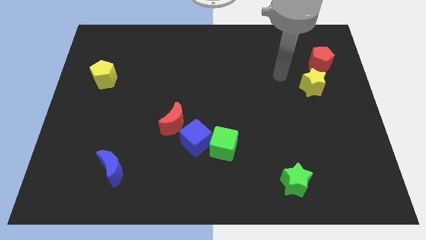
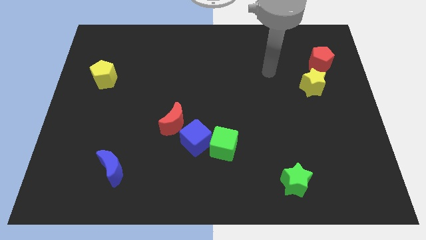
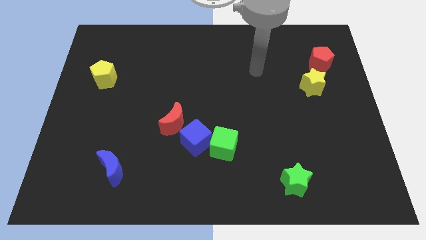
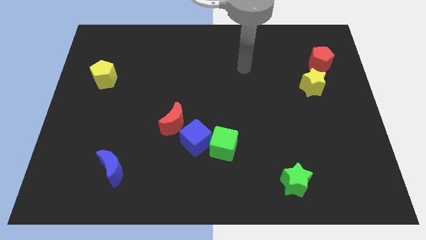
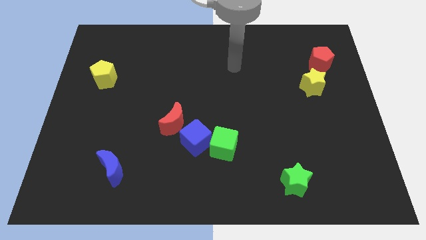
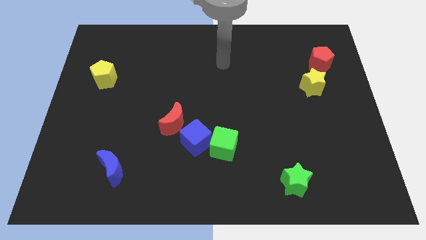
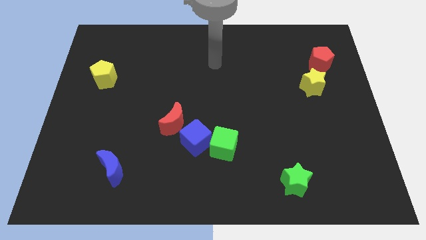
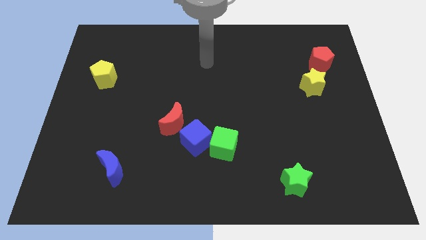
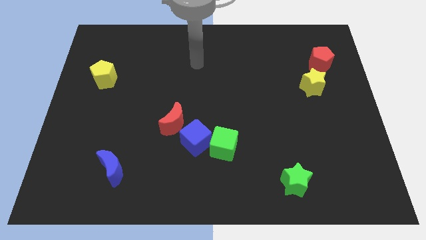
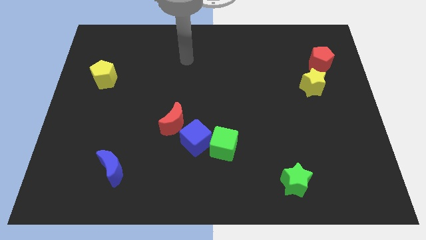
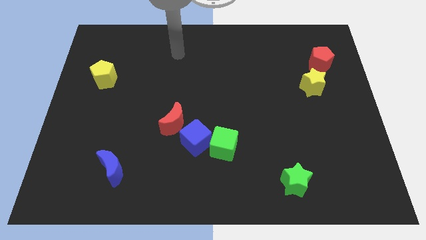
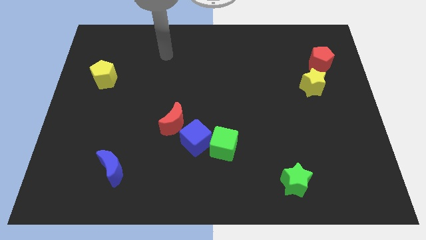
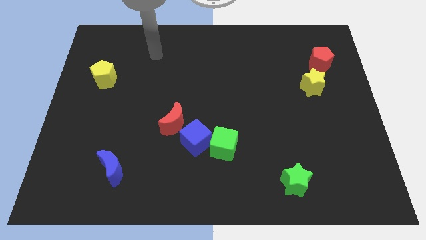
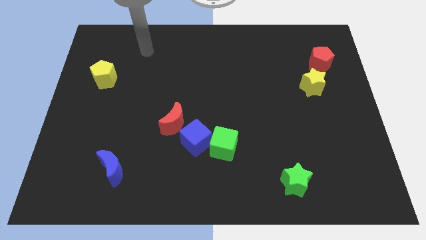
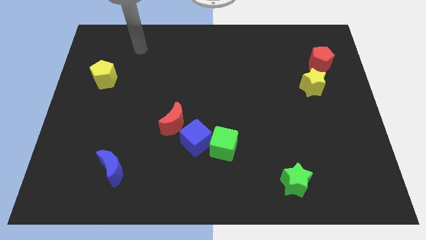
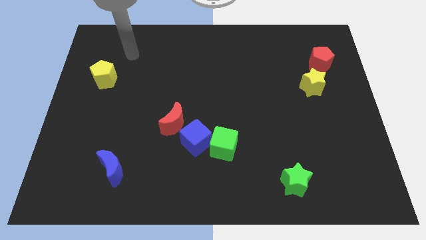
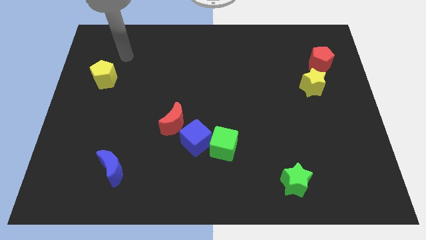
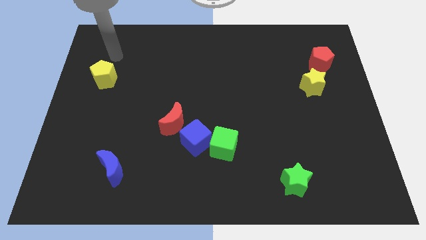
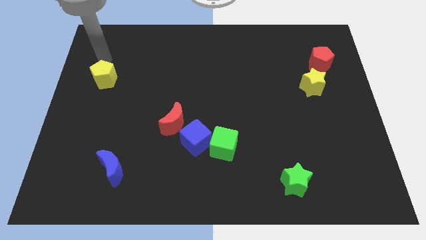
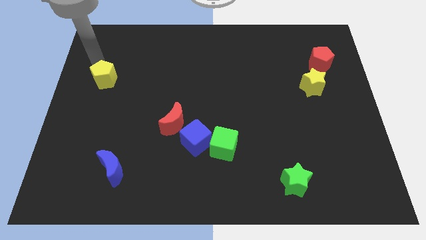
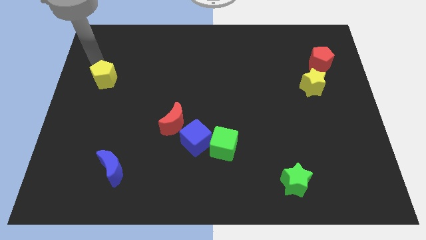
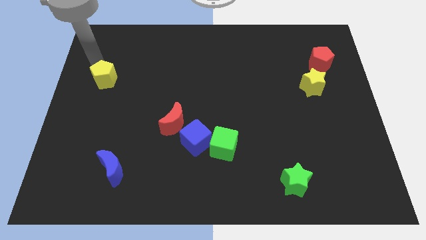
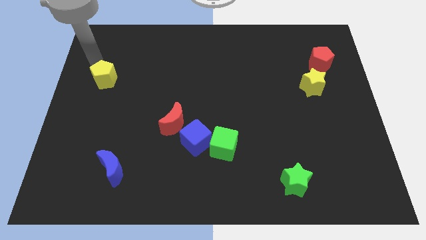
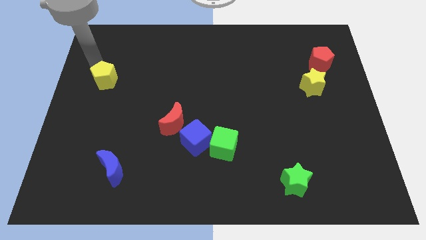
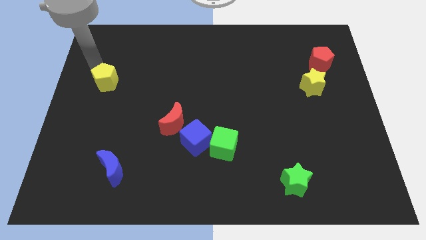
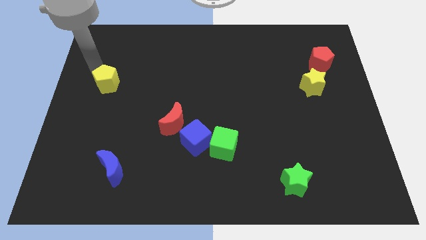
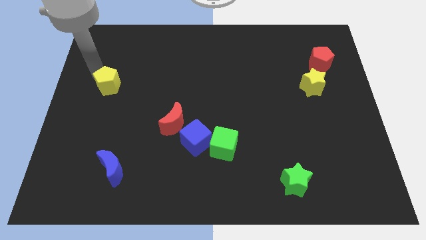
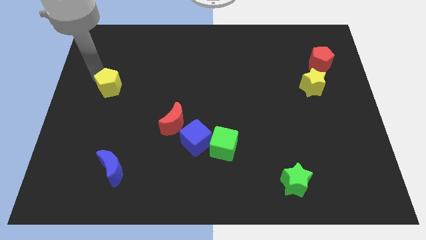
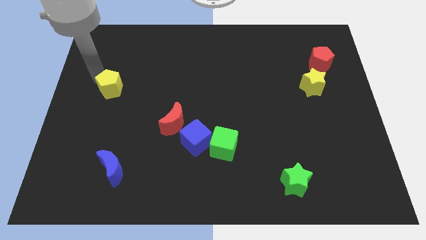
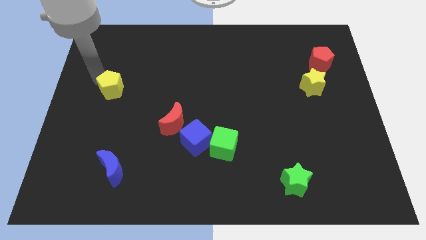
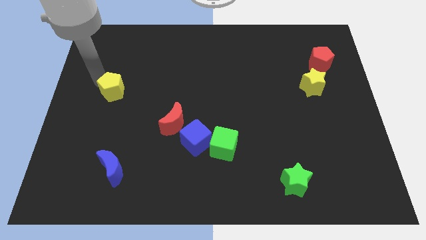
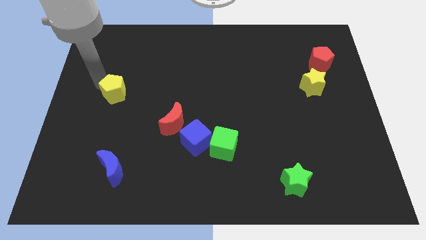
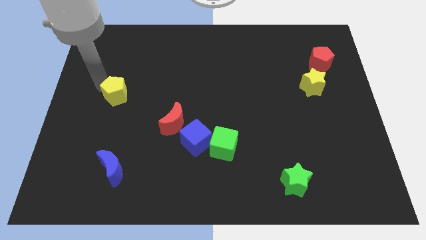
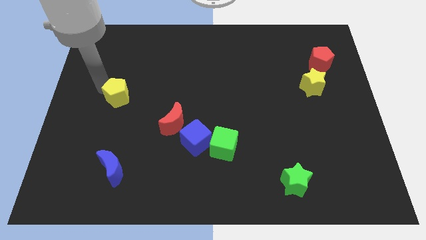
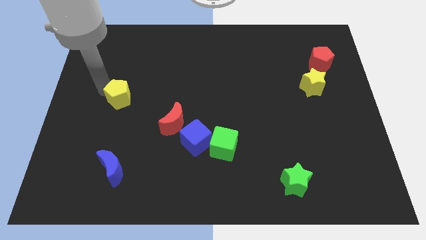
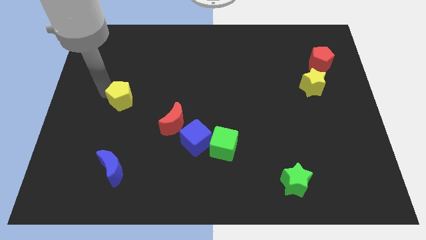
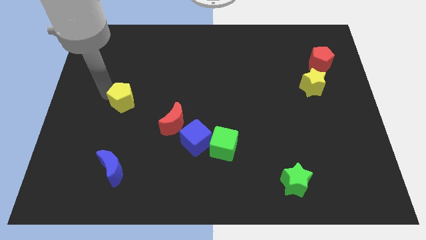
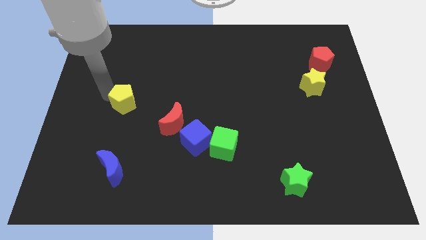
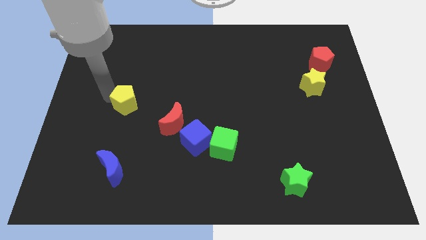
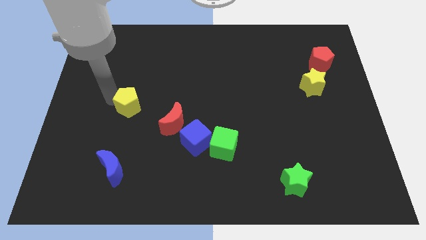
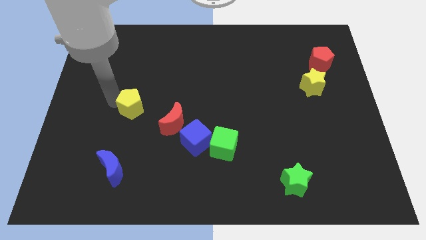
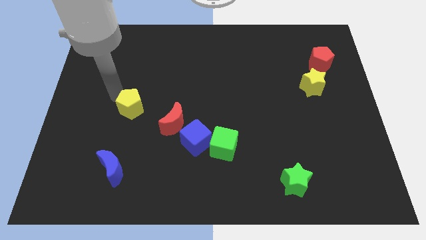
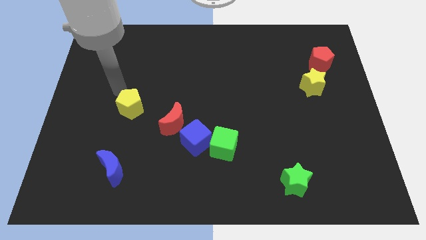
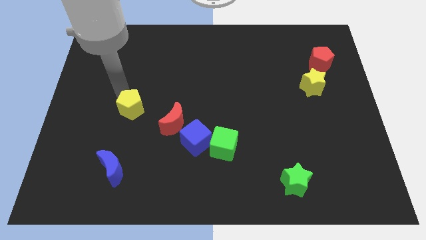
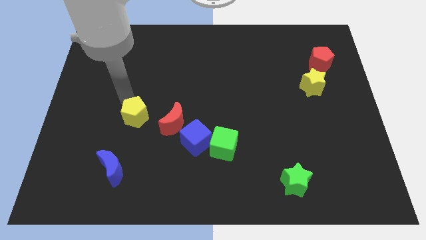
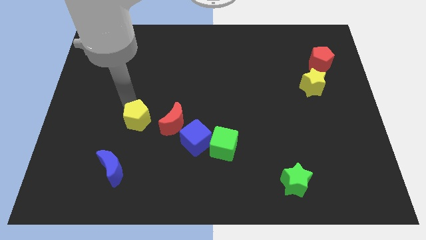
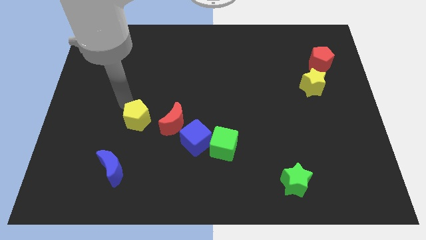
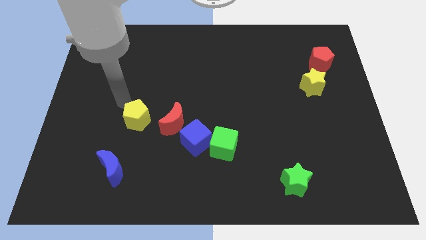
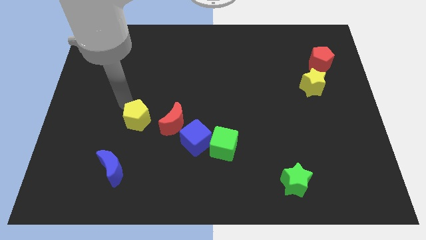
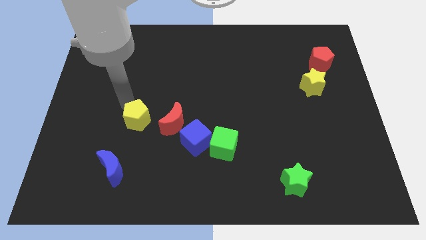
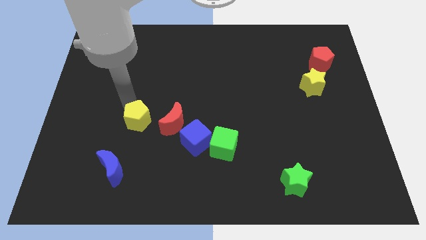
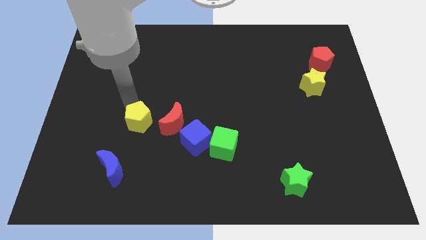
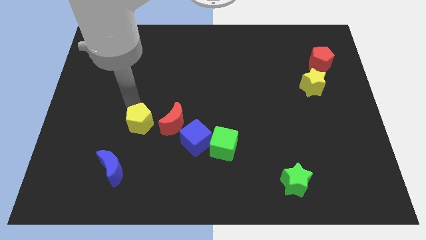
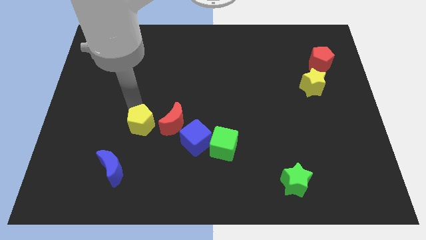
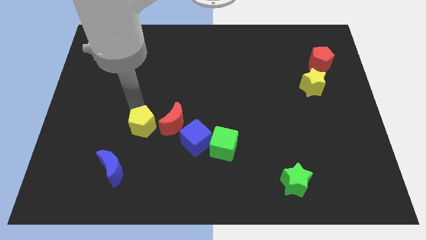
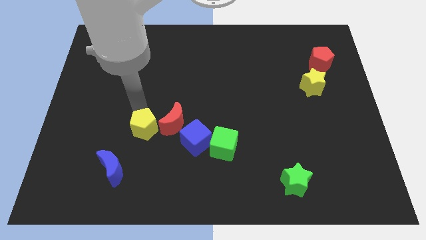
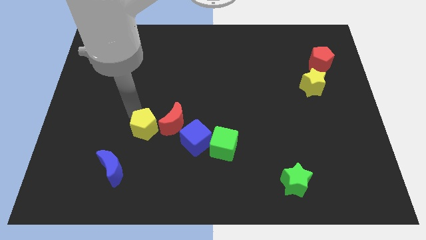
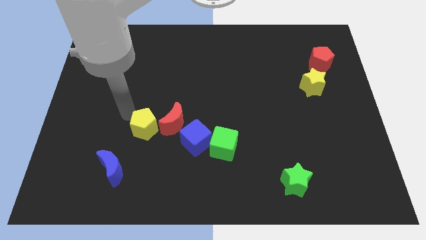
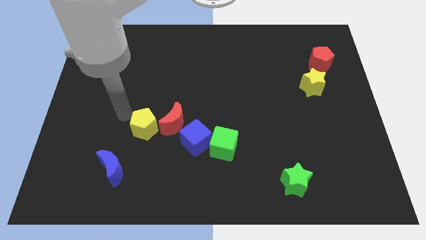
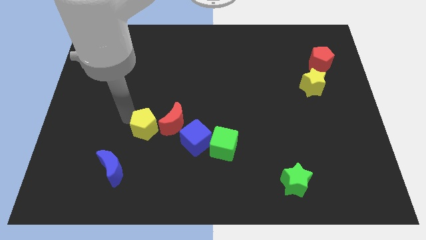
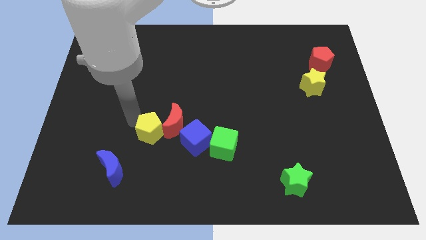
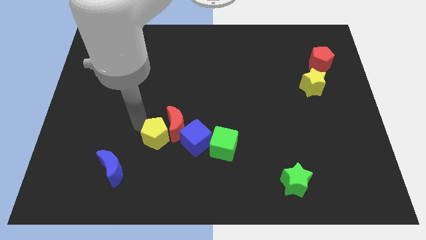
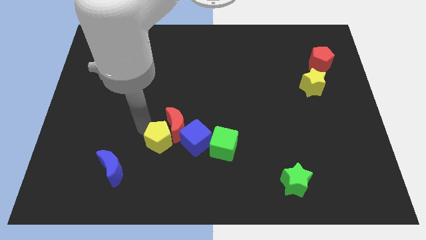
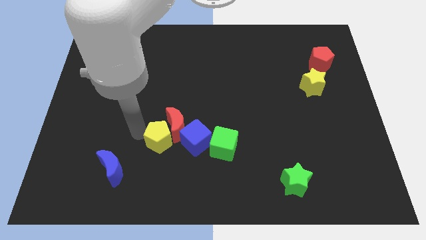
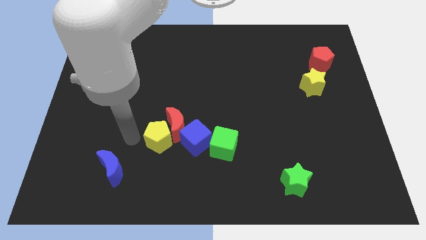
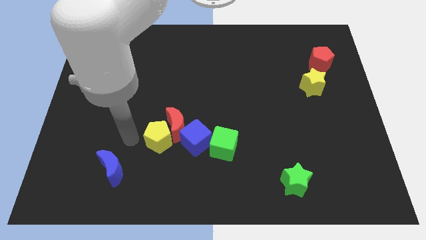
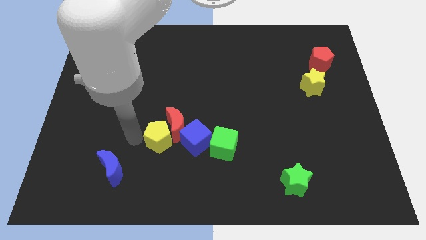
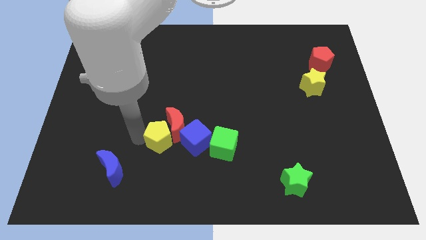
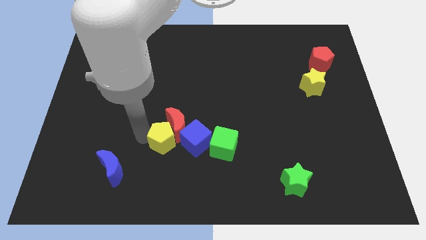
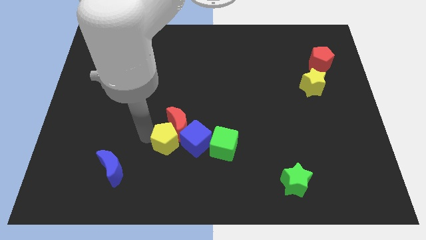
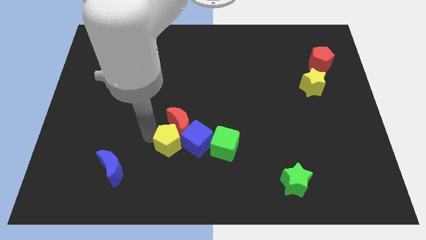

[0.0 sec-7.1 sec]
put the yellow pentagon close to the blue cube

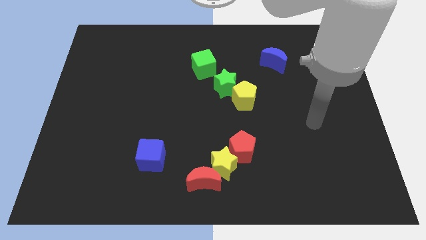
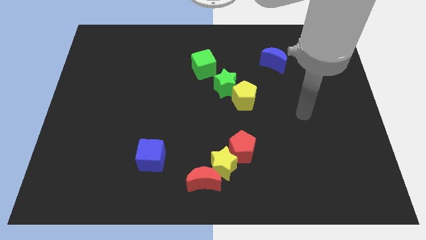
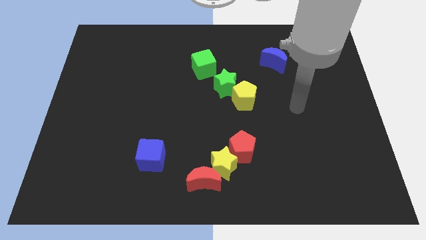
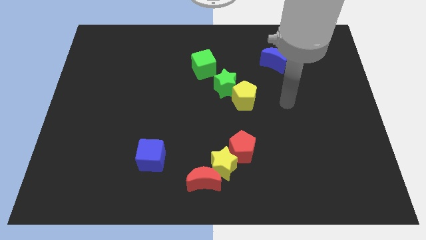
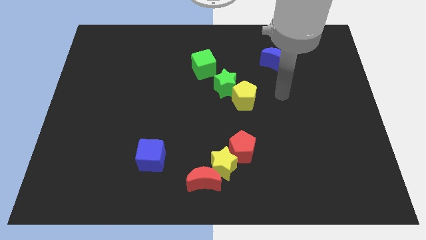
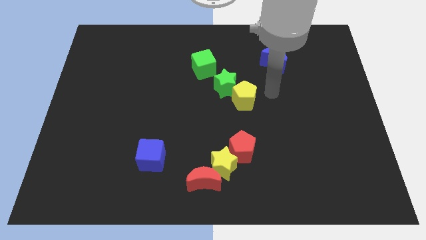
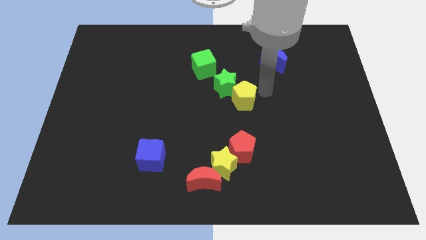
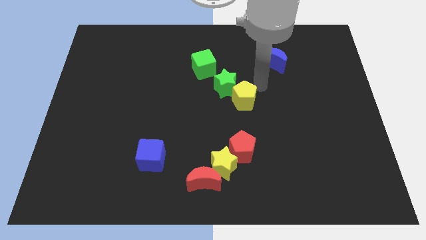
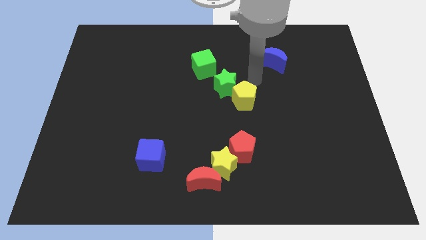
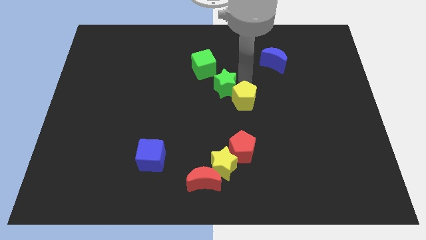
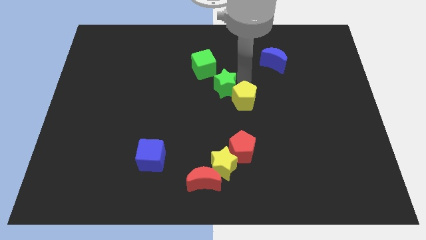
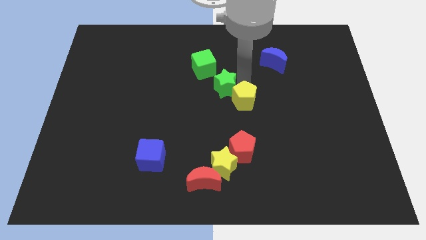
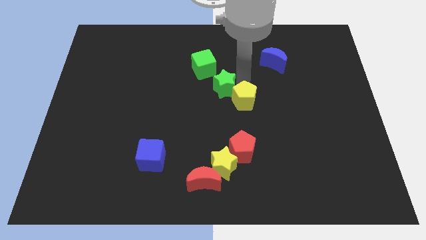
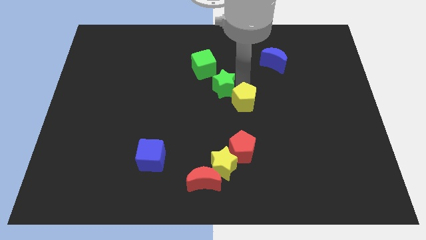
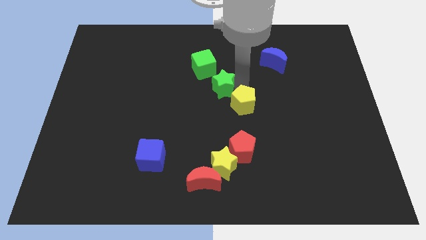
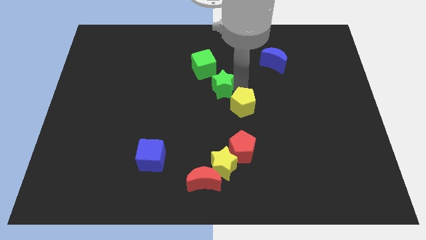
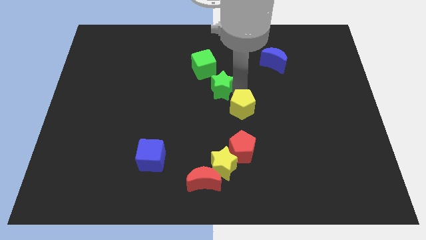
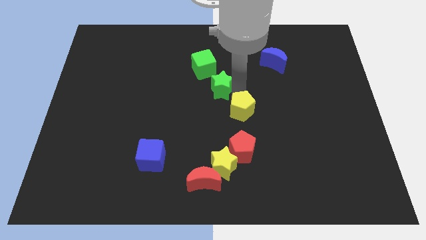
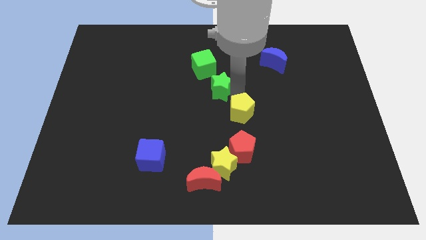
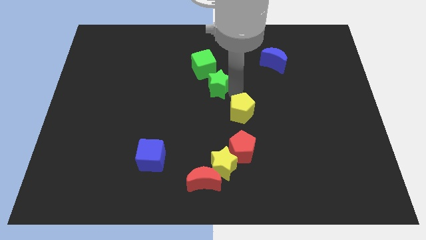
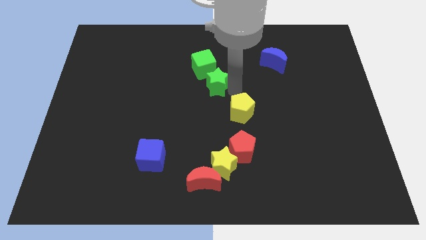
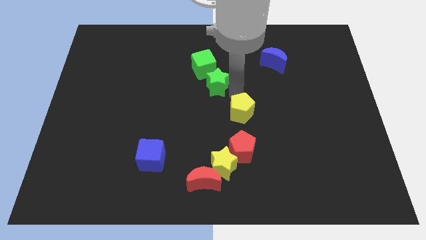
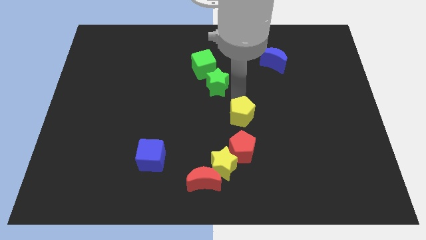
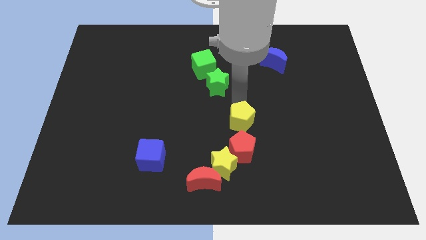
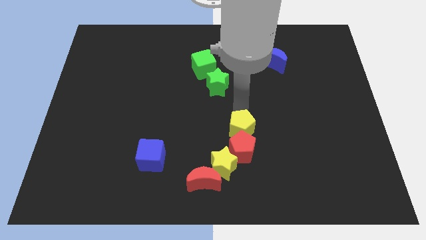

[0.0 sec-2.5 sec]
move the yellow pentagon next to the red pentagon
